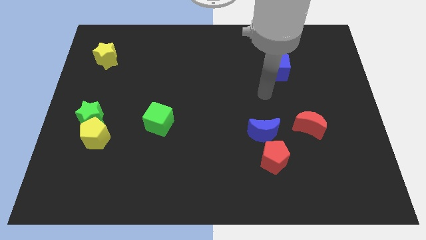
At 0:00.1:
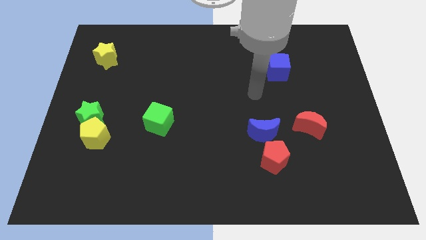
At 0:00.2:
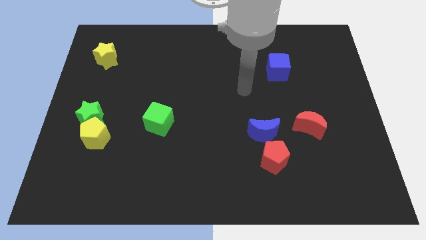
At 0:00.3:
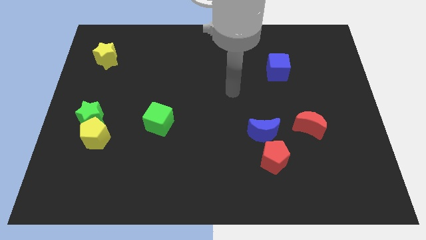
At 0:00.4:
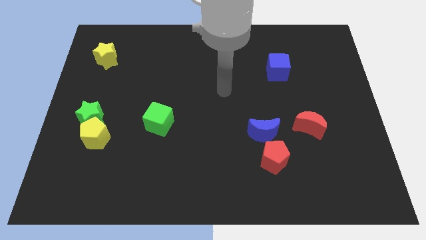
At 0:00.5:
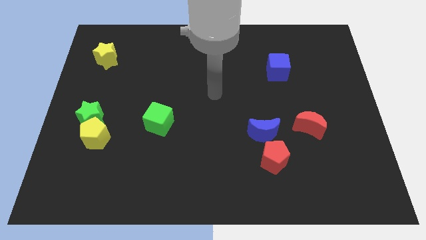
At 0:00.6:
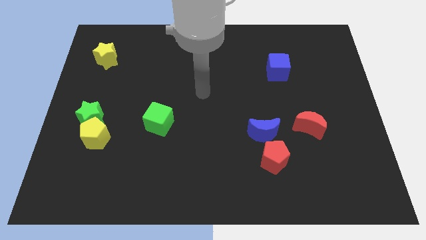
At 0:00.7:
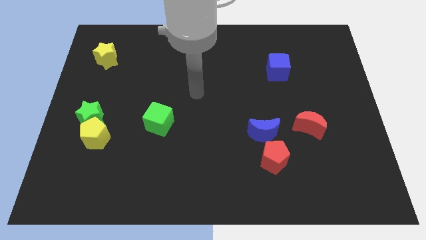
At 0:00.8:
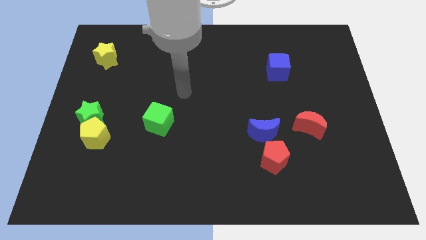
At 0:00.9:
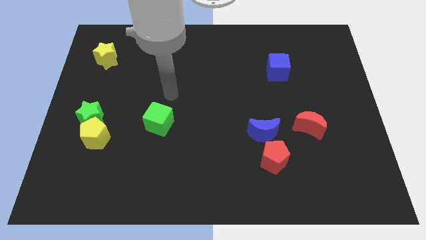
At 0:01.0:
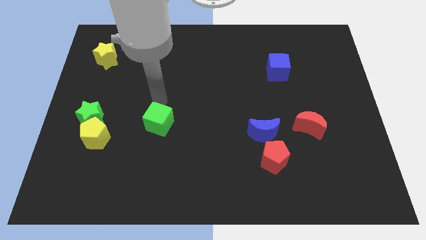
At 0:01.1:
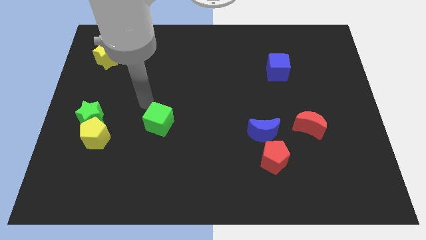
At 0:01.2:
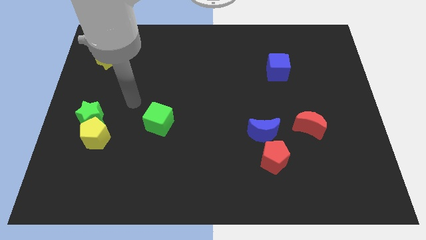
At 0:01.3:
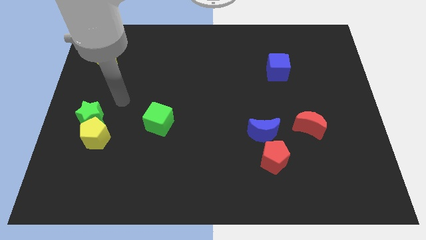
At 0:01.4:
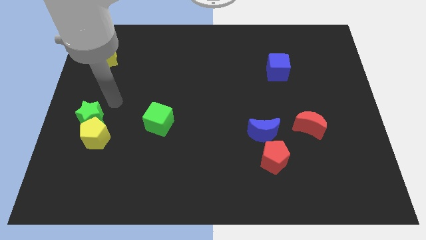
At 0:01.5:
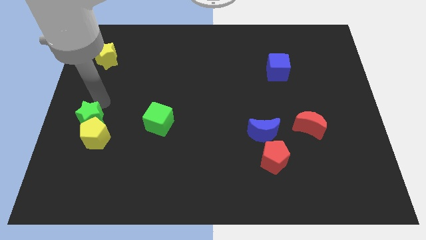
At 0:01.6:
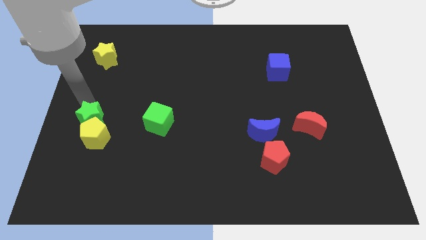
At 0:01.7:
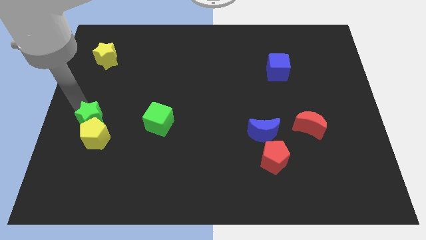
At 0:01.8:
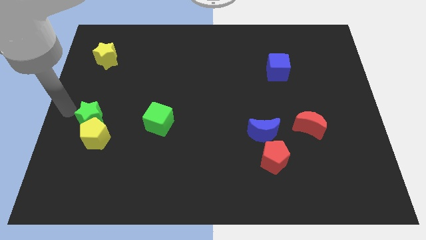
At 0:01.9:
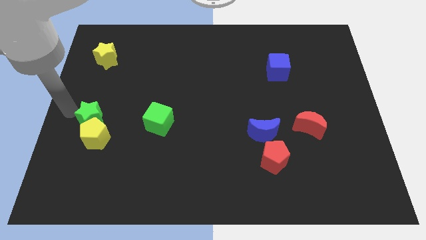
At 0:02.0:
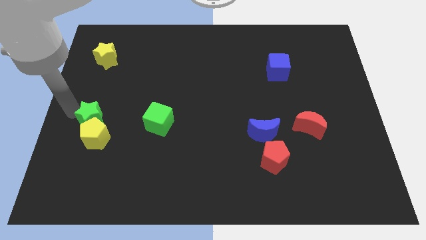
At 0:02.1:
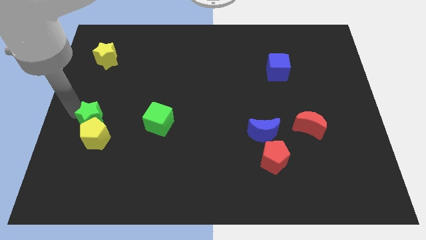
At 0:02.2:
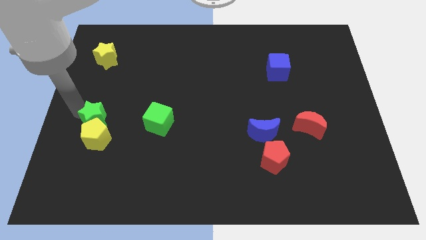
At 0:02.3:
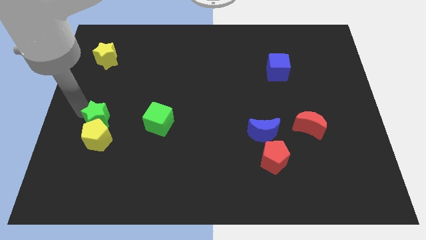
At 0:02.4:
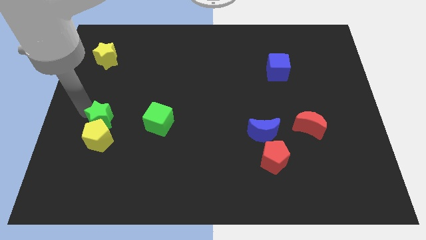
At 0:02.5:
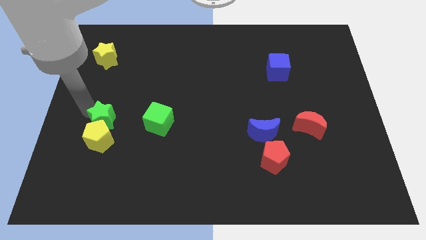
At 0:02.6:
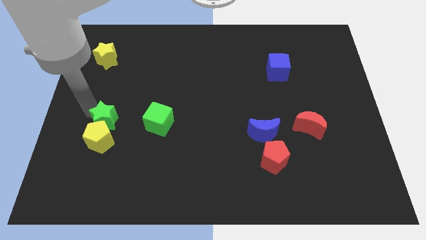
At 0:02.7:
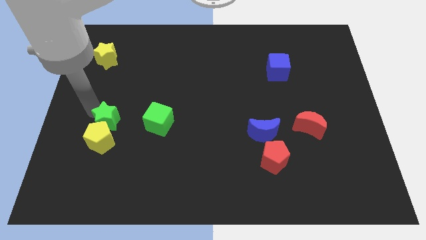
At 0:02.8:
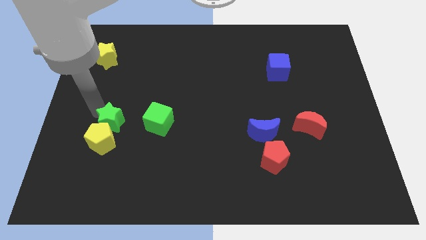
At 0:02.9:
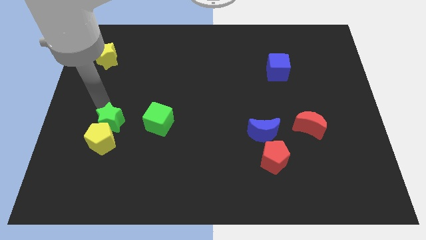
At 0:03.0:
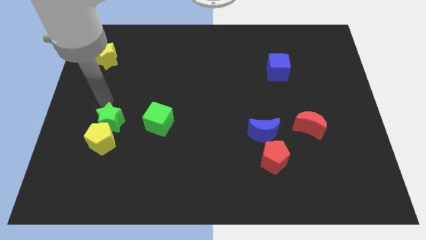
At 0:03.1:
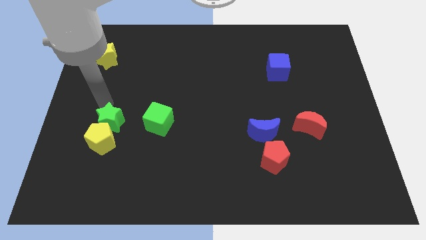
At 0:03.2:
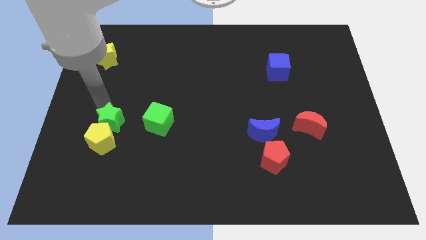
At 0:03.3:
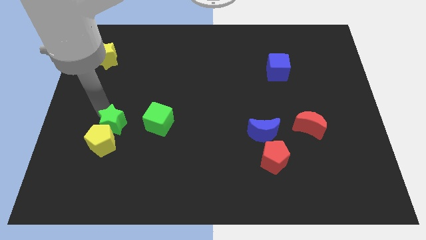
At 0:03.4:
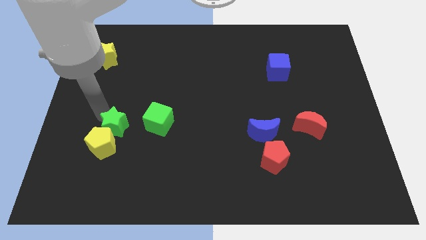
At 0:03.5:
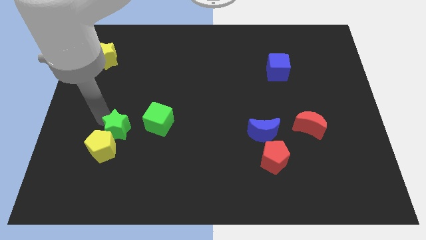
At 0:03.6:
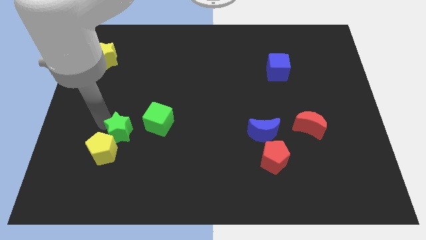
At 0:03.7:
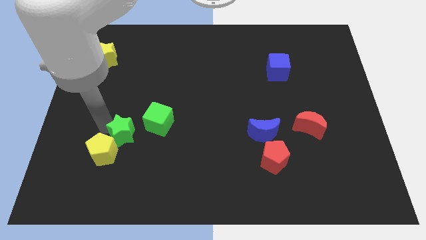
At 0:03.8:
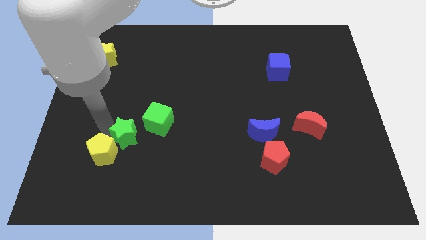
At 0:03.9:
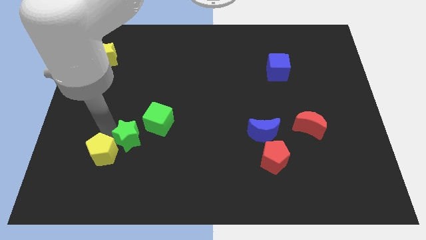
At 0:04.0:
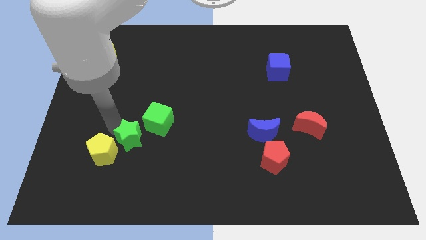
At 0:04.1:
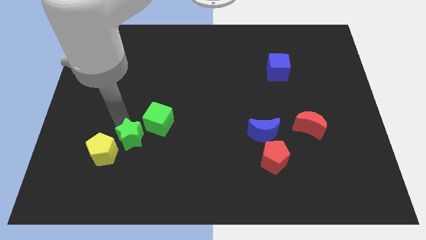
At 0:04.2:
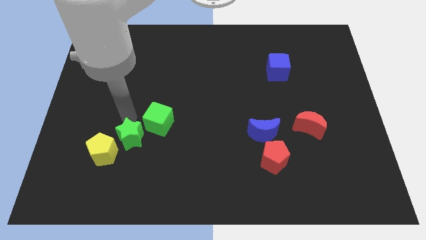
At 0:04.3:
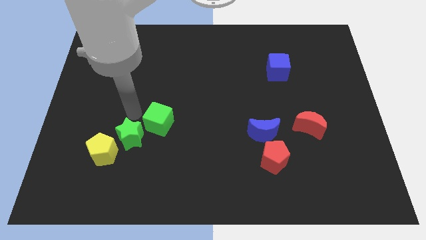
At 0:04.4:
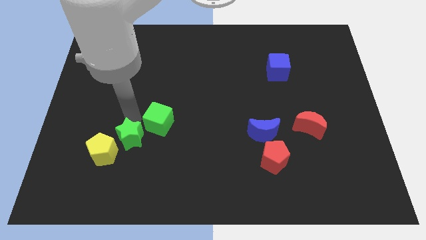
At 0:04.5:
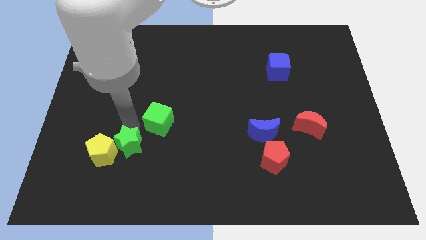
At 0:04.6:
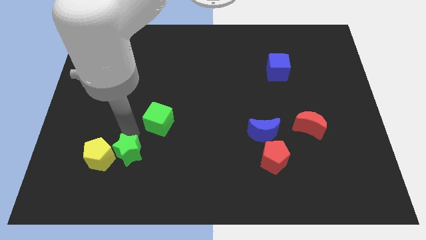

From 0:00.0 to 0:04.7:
slide the green star to the bottom right side of the yellow pentagon

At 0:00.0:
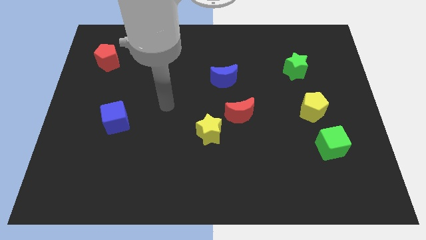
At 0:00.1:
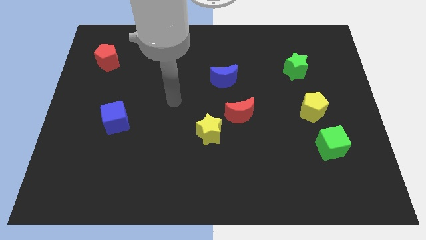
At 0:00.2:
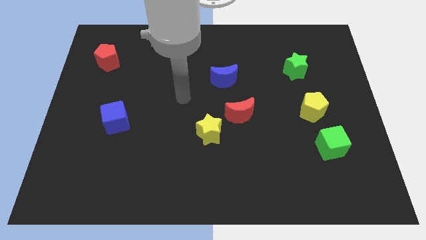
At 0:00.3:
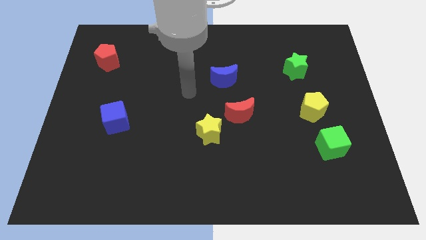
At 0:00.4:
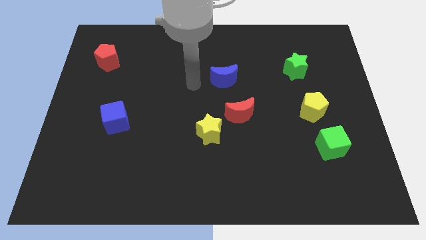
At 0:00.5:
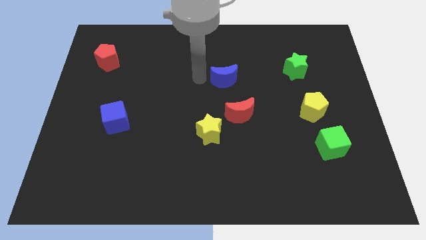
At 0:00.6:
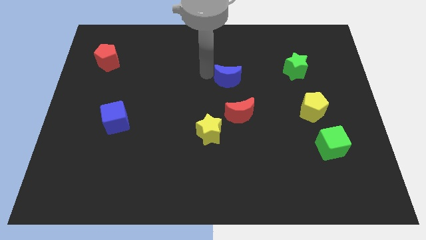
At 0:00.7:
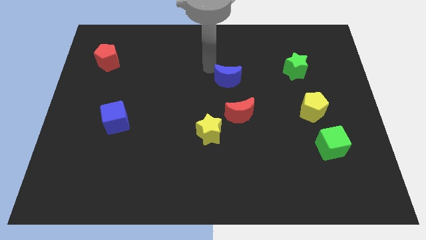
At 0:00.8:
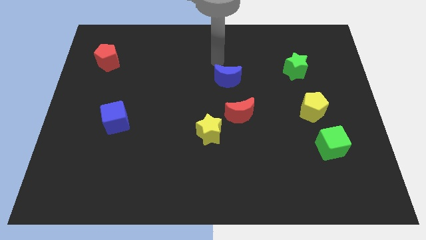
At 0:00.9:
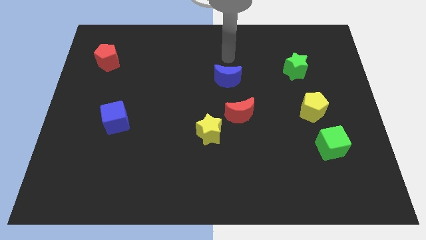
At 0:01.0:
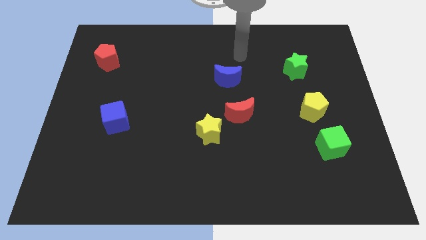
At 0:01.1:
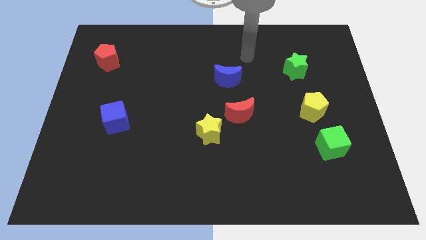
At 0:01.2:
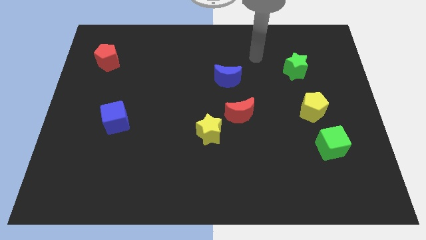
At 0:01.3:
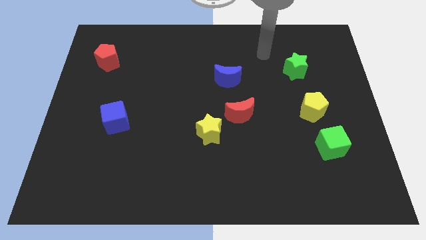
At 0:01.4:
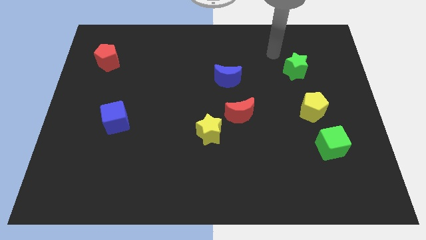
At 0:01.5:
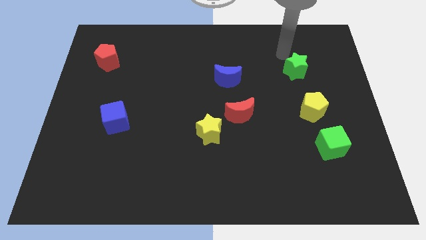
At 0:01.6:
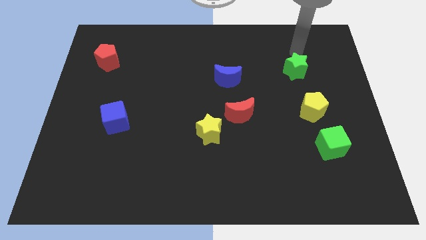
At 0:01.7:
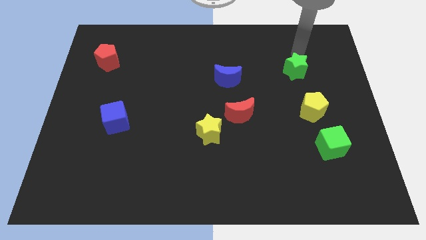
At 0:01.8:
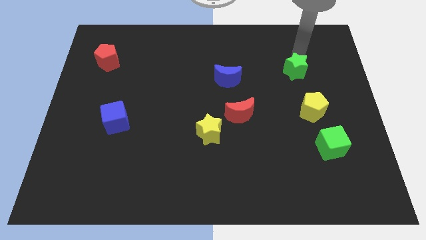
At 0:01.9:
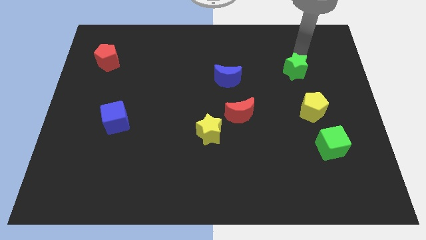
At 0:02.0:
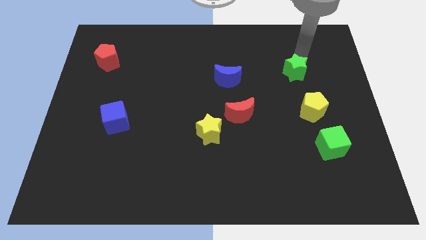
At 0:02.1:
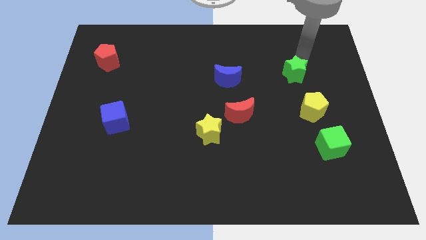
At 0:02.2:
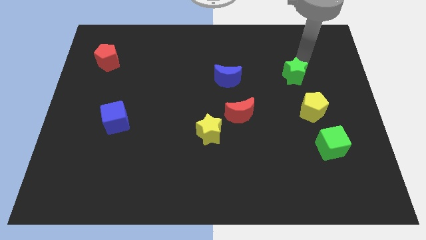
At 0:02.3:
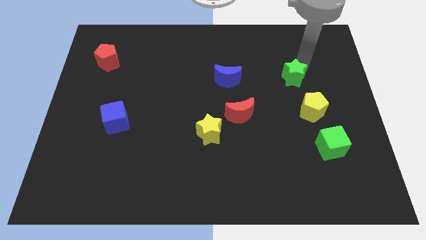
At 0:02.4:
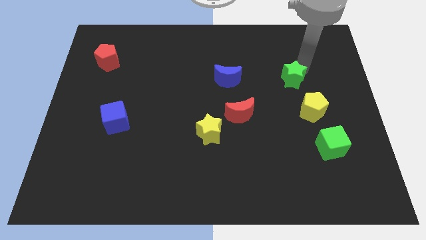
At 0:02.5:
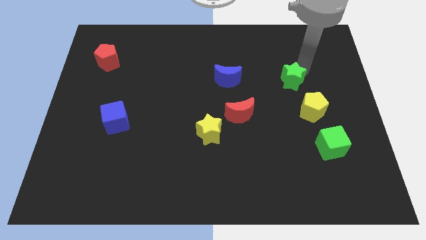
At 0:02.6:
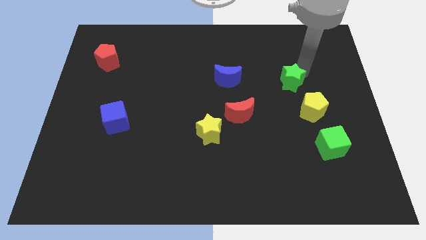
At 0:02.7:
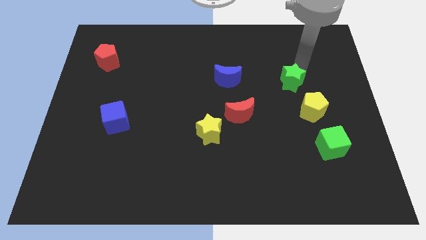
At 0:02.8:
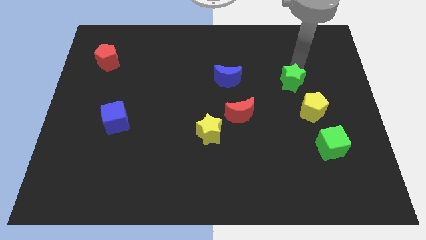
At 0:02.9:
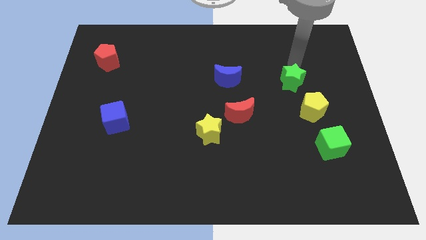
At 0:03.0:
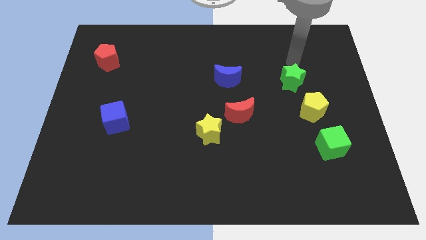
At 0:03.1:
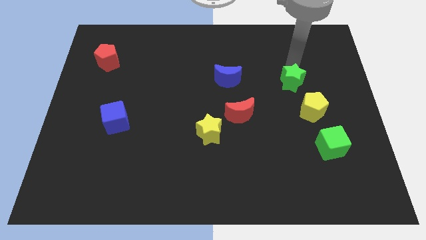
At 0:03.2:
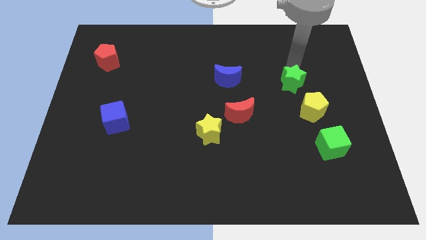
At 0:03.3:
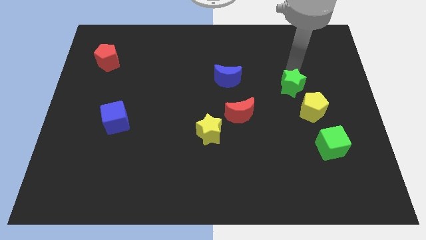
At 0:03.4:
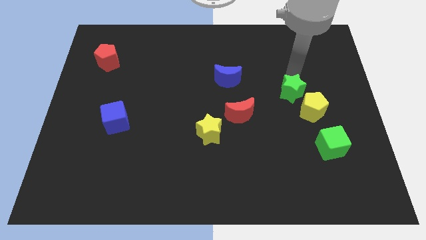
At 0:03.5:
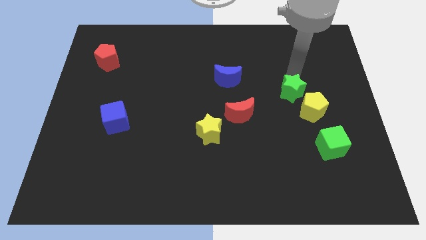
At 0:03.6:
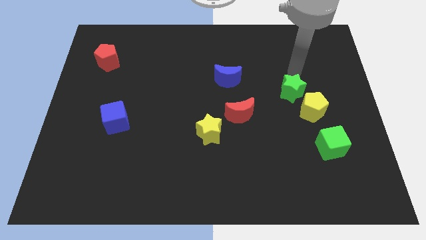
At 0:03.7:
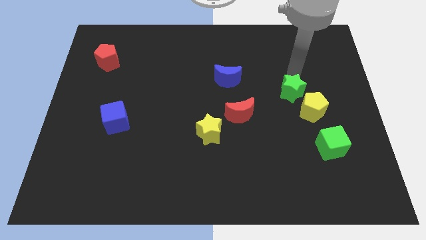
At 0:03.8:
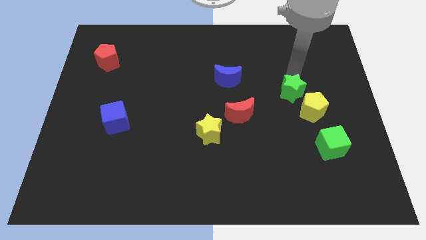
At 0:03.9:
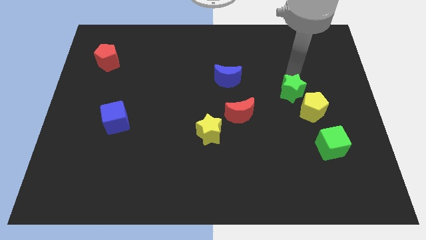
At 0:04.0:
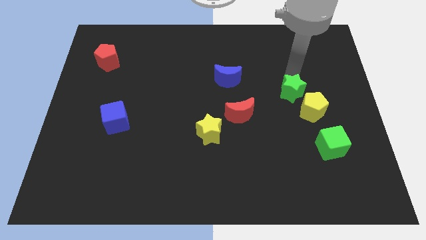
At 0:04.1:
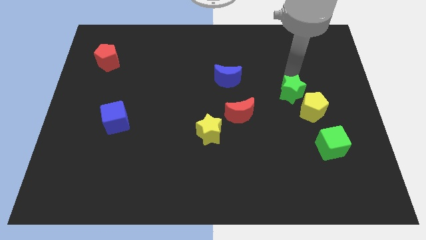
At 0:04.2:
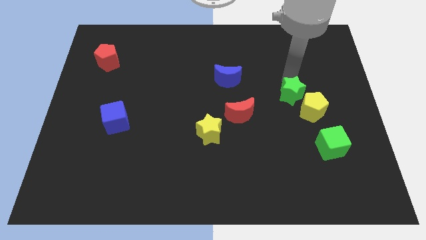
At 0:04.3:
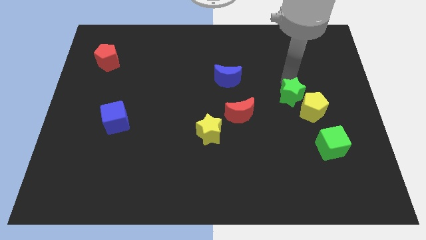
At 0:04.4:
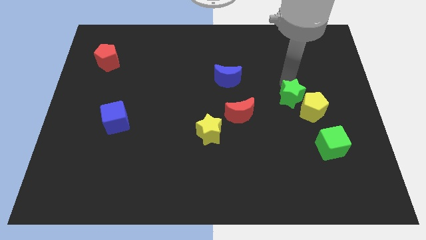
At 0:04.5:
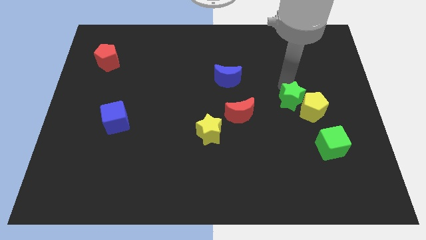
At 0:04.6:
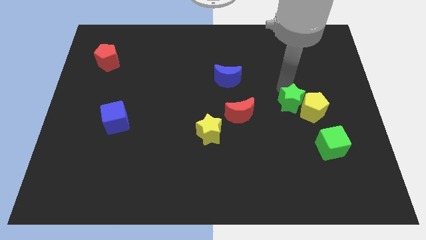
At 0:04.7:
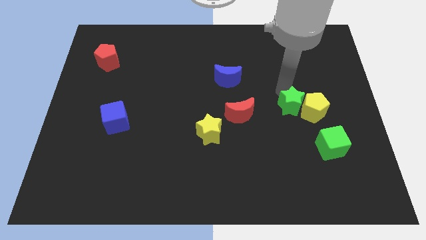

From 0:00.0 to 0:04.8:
slide the green star to the bottom left of the yellow pentagon
